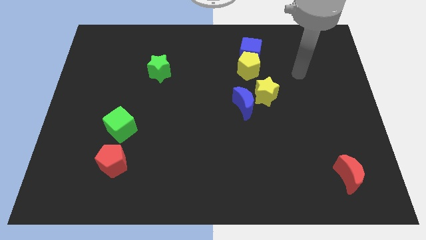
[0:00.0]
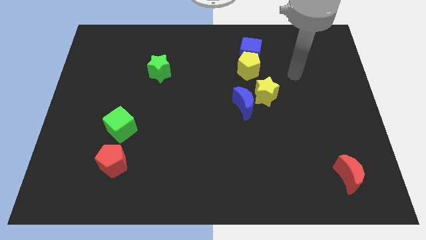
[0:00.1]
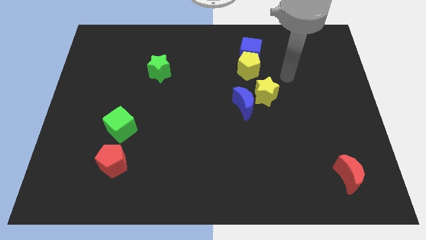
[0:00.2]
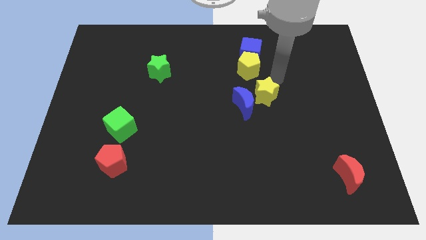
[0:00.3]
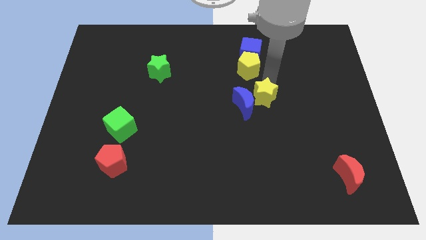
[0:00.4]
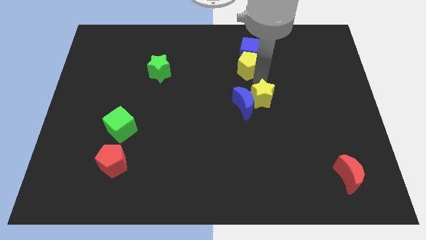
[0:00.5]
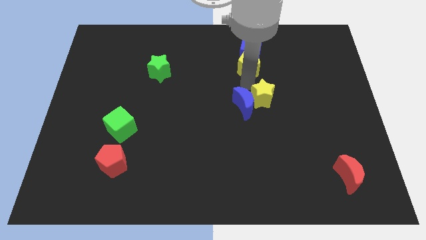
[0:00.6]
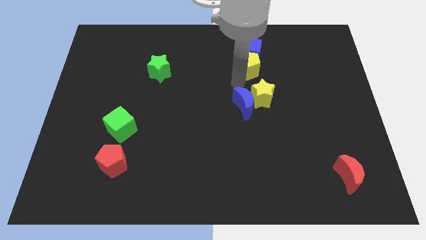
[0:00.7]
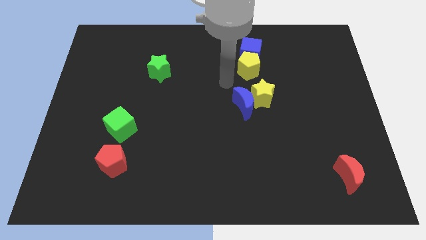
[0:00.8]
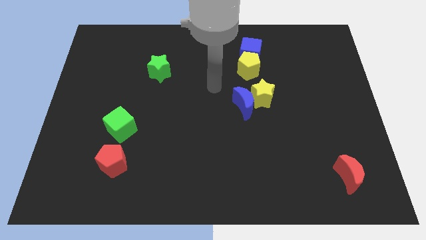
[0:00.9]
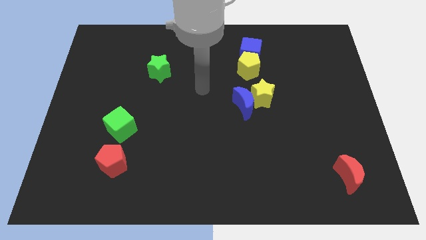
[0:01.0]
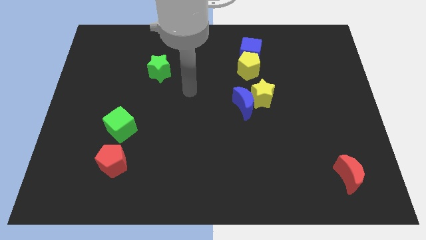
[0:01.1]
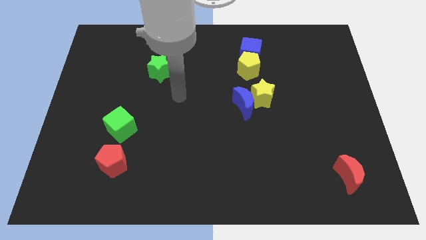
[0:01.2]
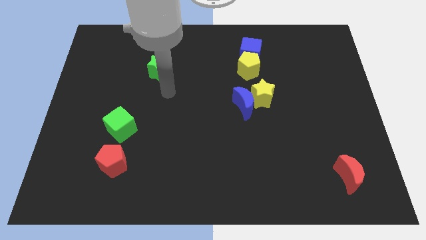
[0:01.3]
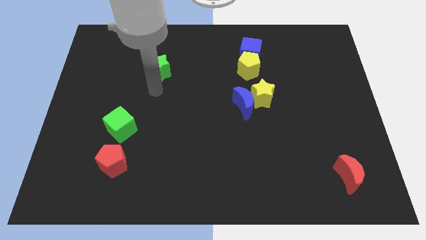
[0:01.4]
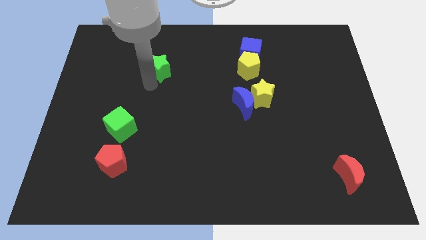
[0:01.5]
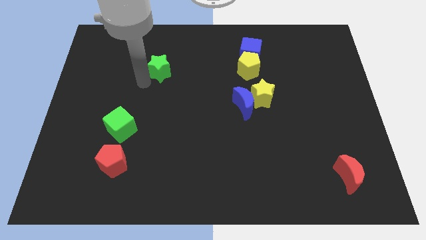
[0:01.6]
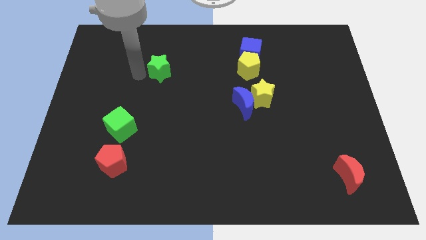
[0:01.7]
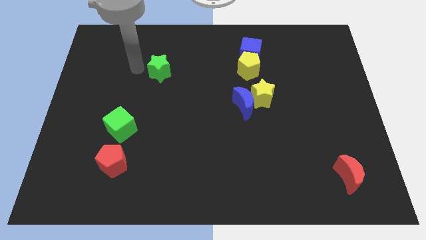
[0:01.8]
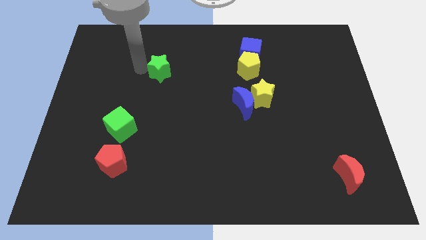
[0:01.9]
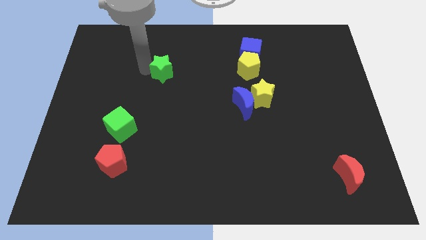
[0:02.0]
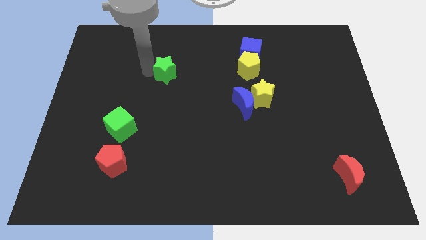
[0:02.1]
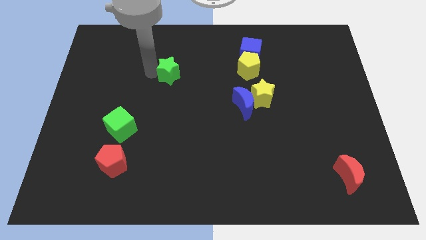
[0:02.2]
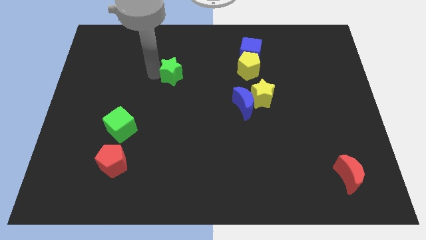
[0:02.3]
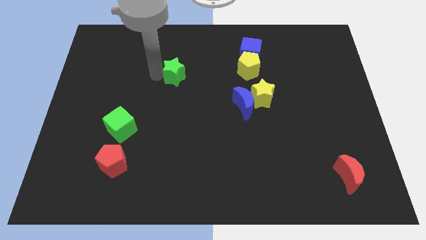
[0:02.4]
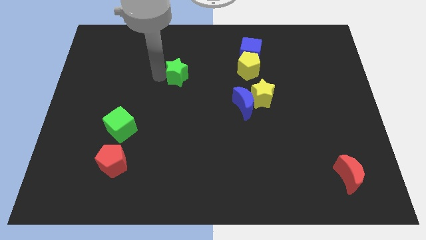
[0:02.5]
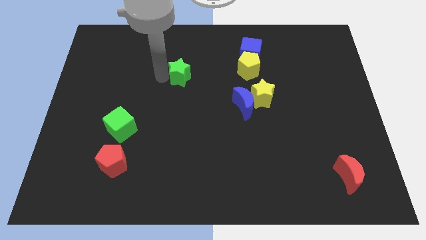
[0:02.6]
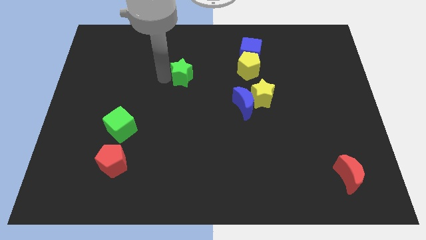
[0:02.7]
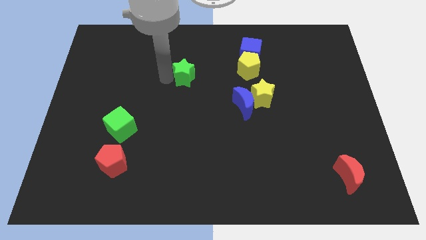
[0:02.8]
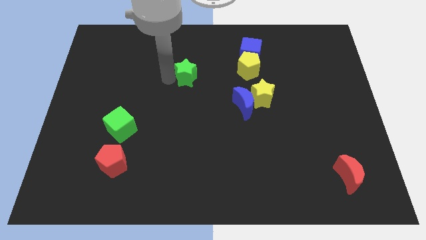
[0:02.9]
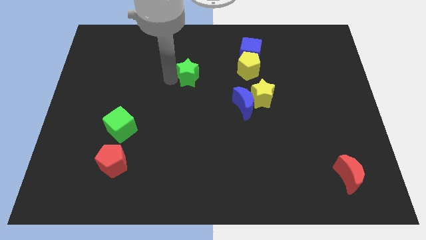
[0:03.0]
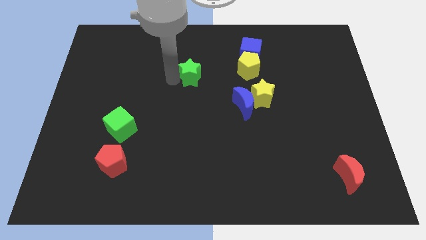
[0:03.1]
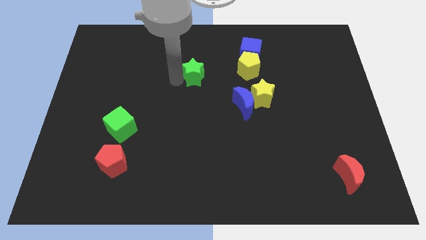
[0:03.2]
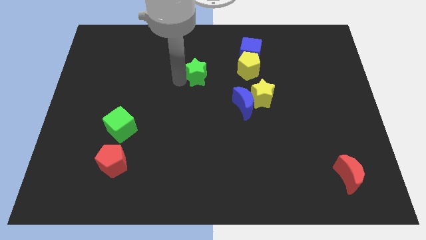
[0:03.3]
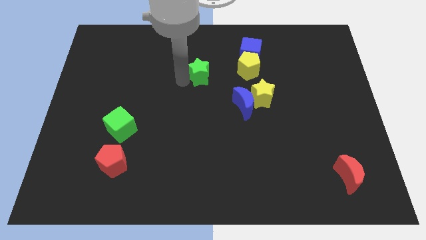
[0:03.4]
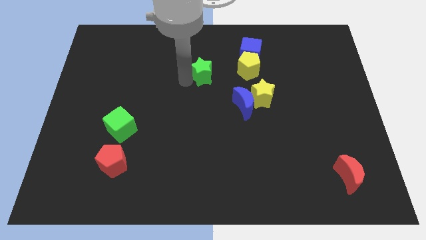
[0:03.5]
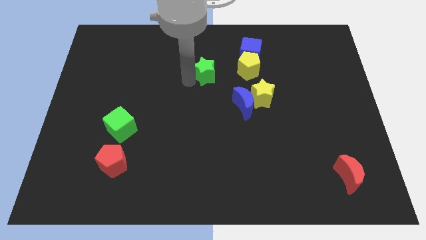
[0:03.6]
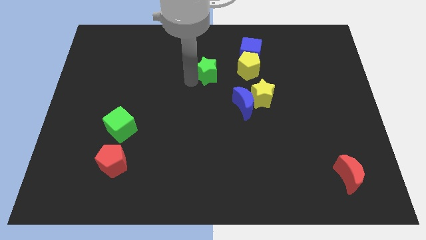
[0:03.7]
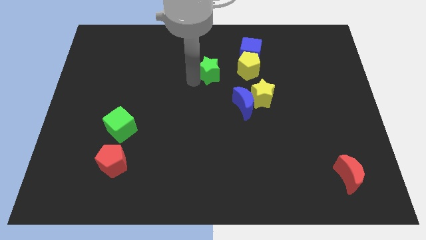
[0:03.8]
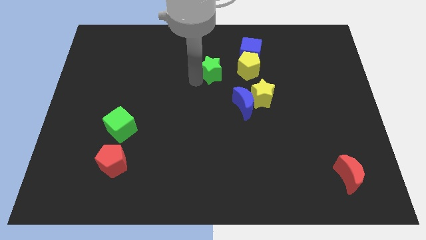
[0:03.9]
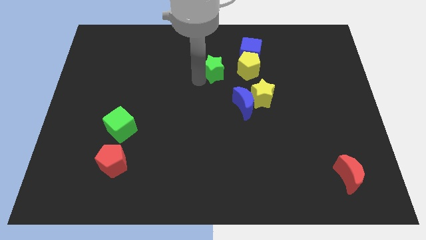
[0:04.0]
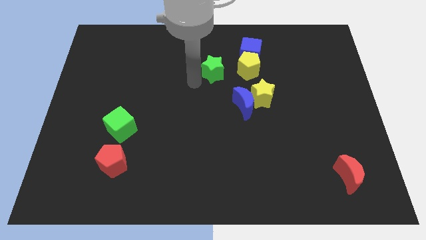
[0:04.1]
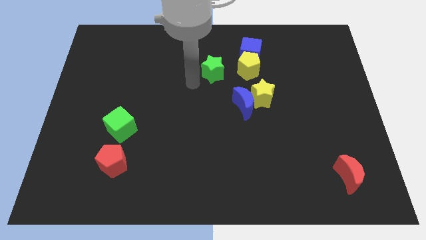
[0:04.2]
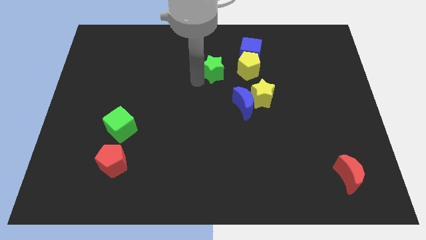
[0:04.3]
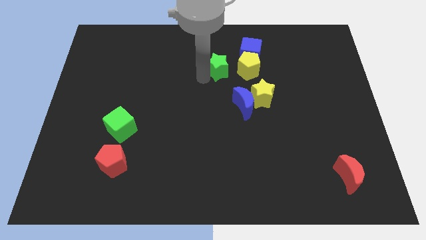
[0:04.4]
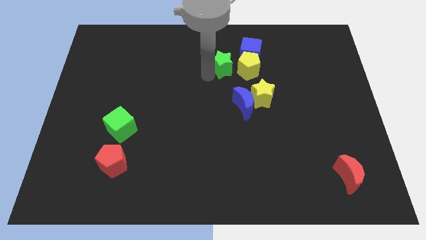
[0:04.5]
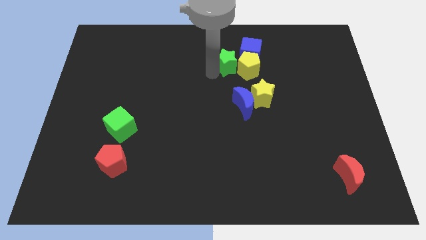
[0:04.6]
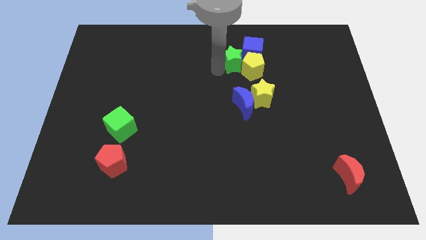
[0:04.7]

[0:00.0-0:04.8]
move the green star to the blue cube

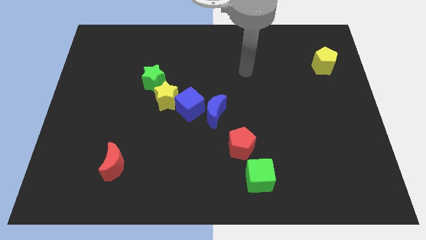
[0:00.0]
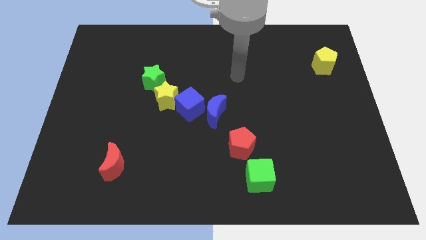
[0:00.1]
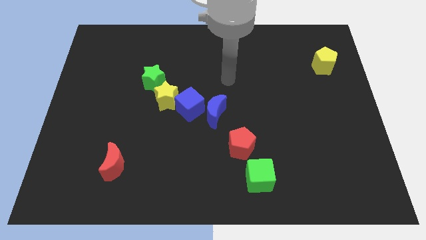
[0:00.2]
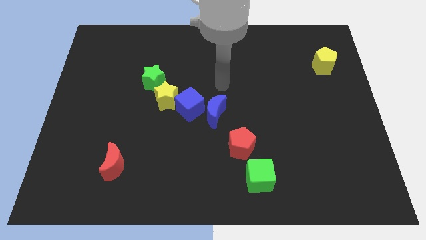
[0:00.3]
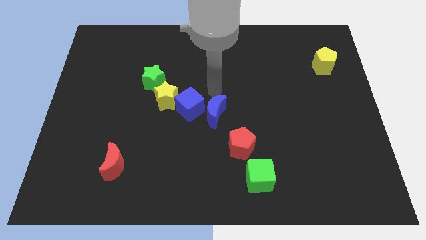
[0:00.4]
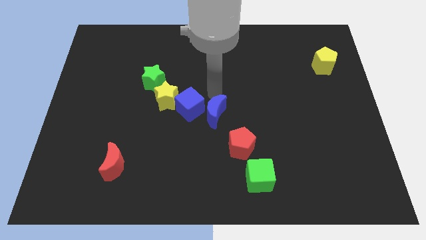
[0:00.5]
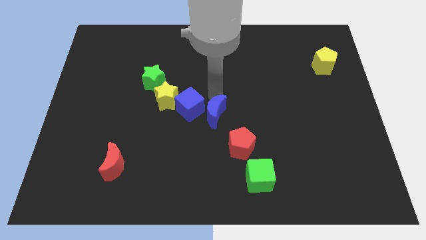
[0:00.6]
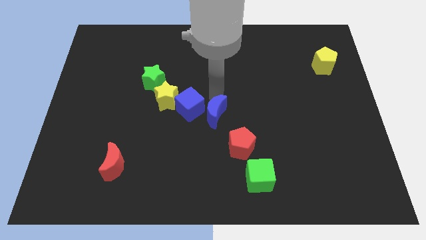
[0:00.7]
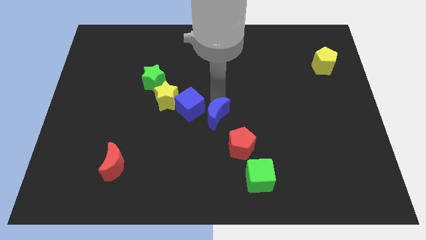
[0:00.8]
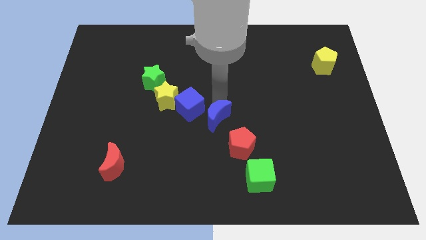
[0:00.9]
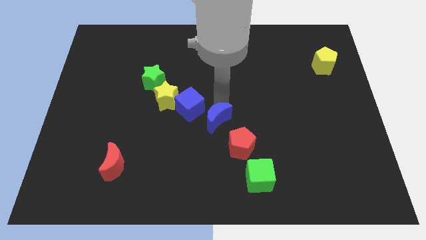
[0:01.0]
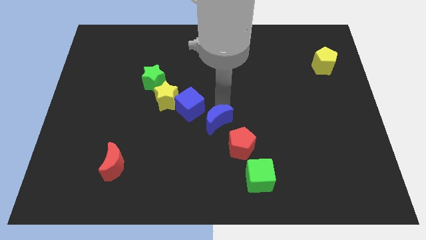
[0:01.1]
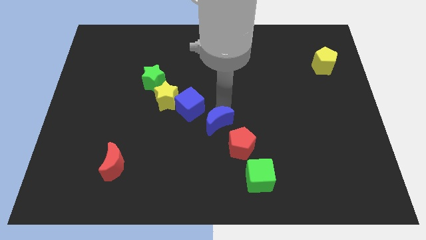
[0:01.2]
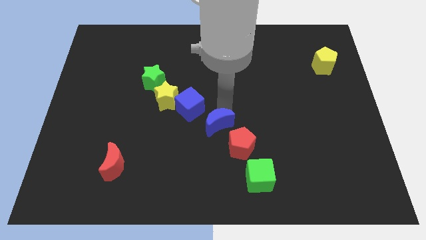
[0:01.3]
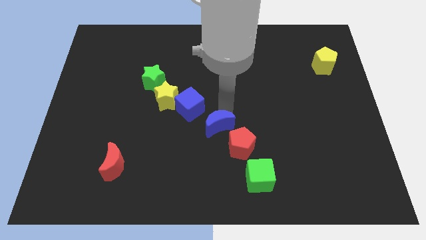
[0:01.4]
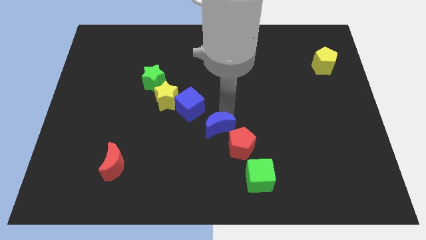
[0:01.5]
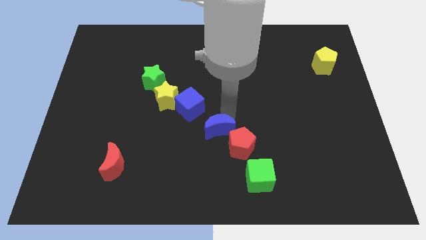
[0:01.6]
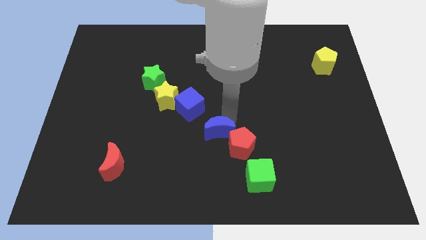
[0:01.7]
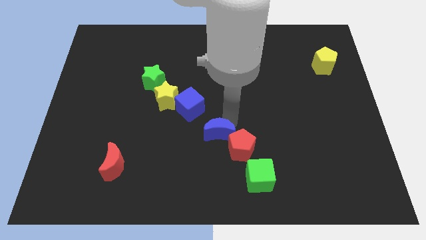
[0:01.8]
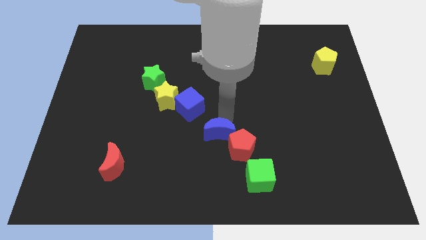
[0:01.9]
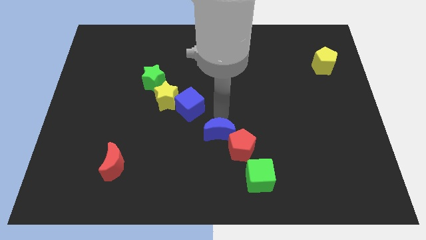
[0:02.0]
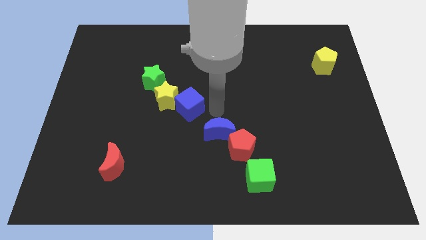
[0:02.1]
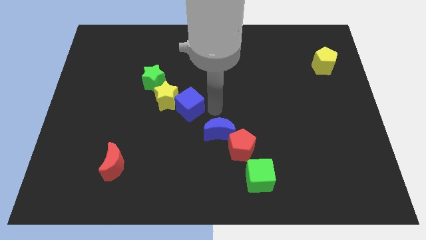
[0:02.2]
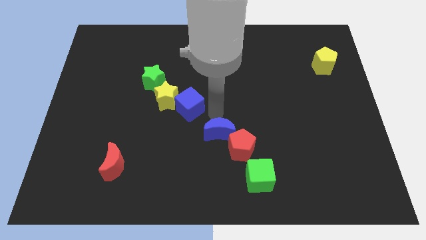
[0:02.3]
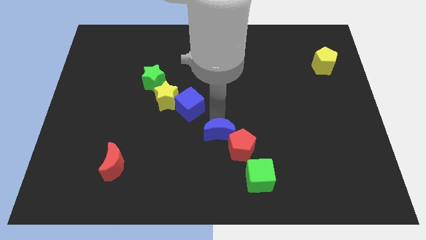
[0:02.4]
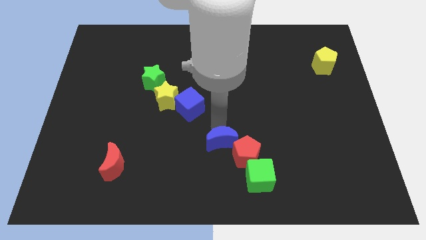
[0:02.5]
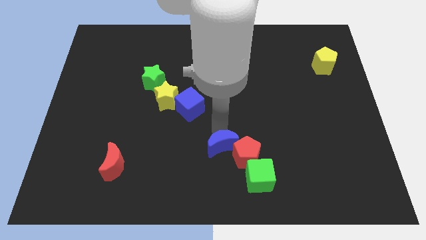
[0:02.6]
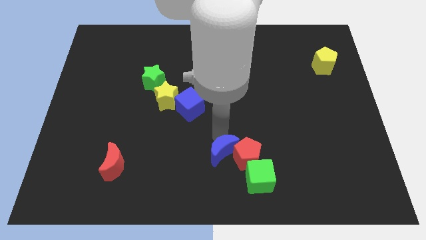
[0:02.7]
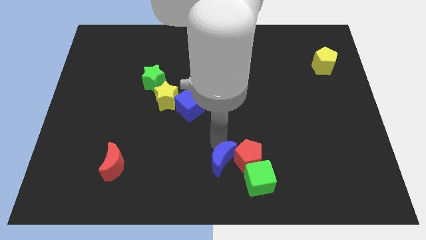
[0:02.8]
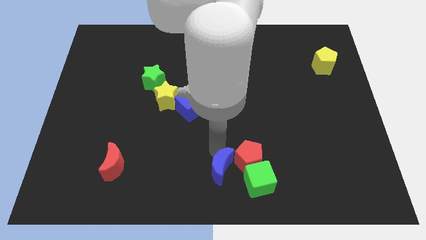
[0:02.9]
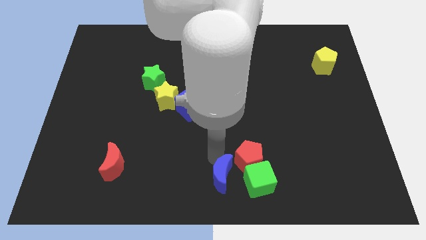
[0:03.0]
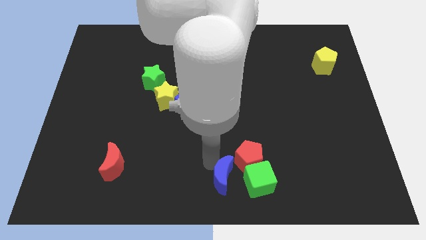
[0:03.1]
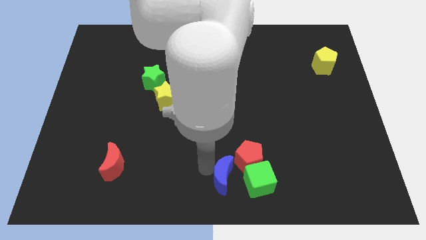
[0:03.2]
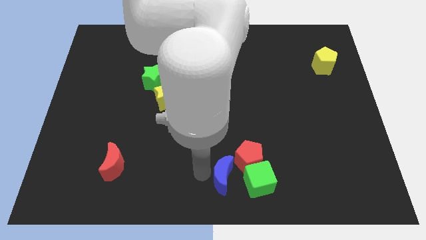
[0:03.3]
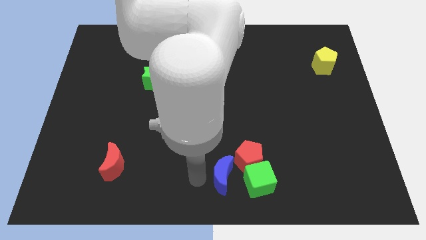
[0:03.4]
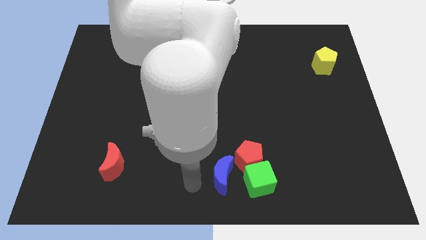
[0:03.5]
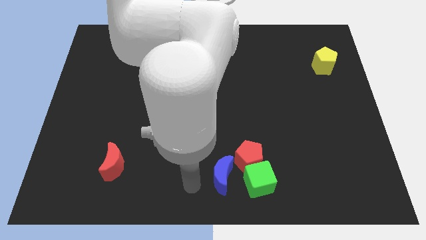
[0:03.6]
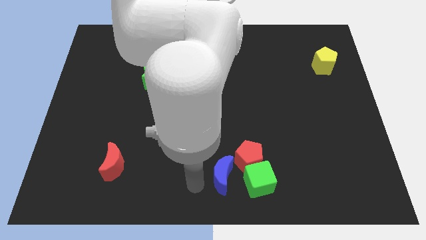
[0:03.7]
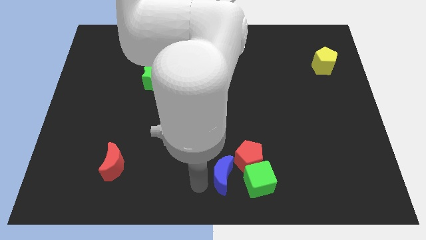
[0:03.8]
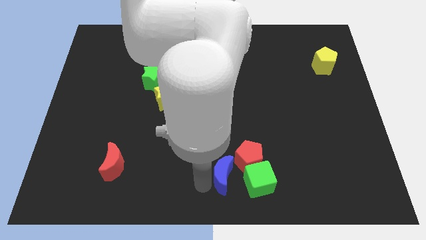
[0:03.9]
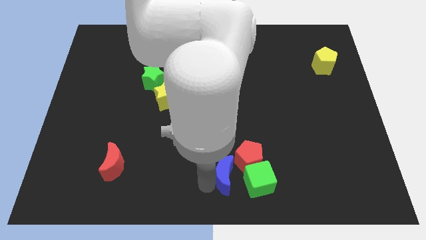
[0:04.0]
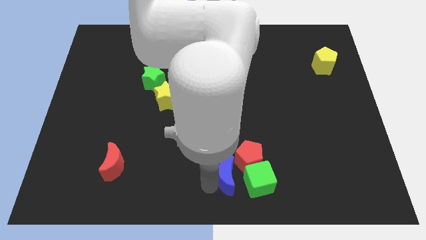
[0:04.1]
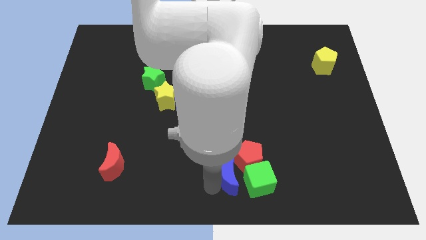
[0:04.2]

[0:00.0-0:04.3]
move the blue moon to the green cube
